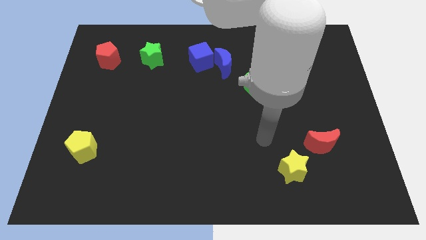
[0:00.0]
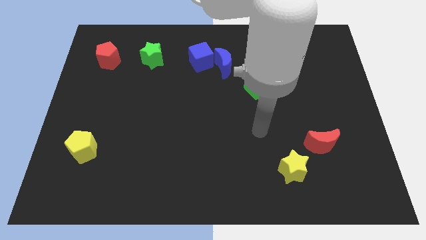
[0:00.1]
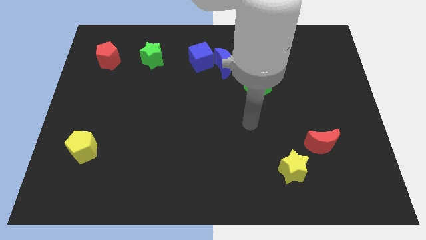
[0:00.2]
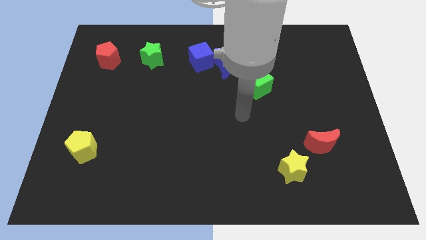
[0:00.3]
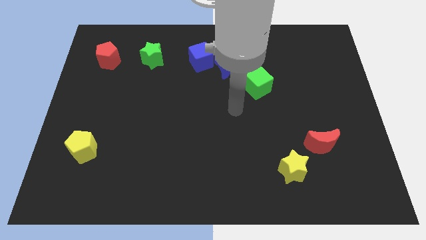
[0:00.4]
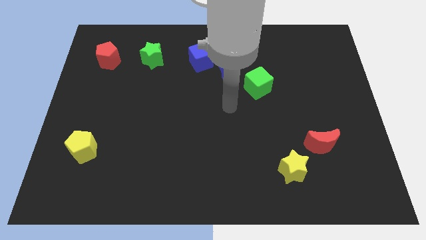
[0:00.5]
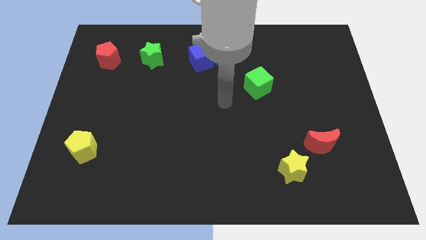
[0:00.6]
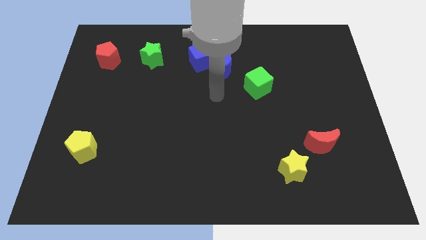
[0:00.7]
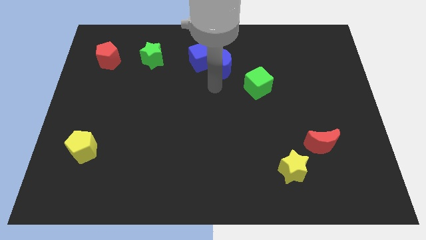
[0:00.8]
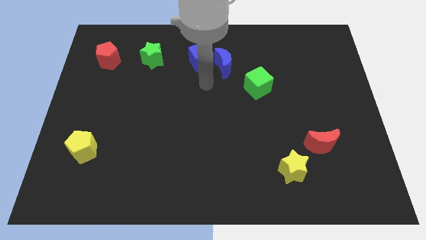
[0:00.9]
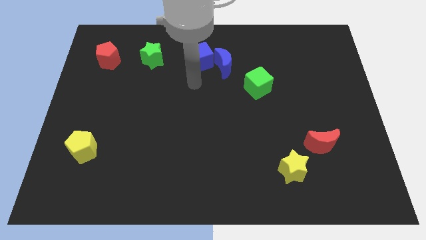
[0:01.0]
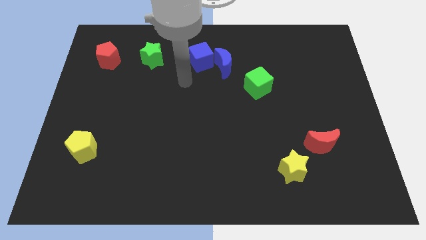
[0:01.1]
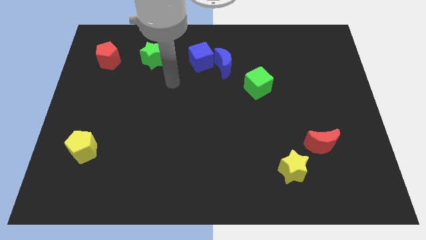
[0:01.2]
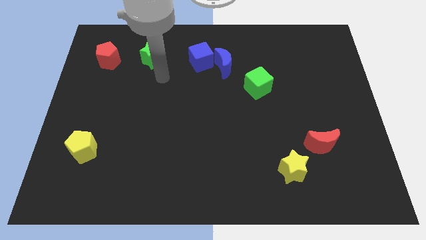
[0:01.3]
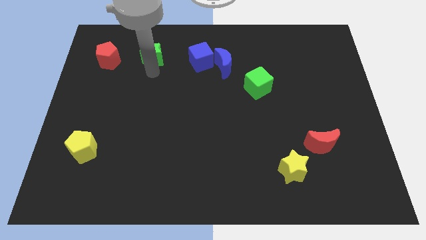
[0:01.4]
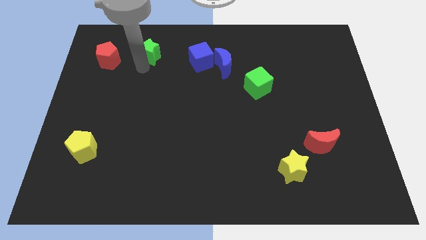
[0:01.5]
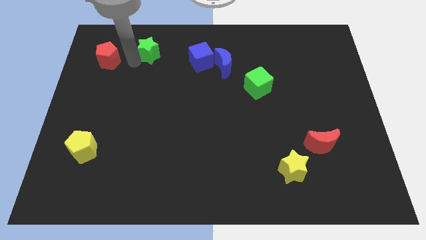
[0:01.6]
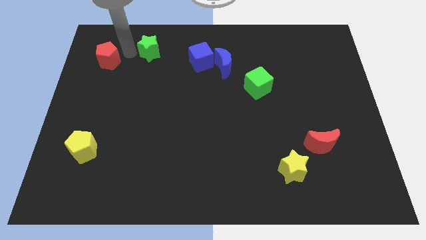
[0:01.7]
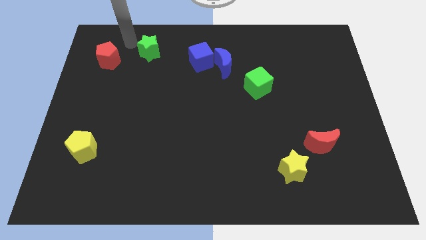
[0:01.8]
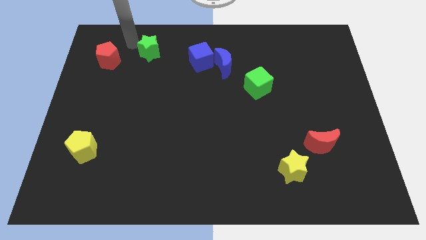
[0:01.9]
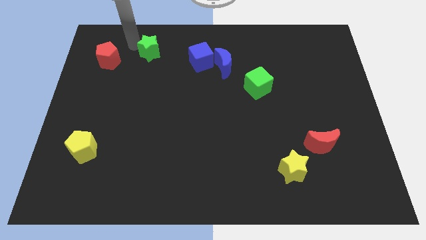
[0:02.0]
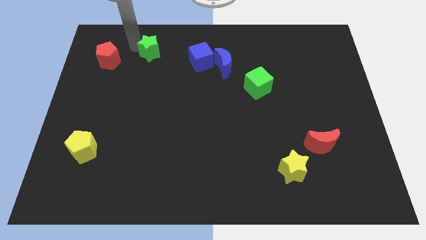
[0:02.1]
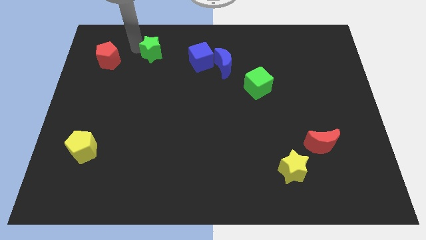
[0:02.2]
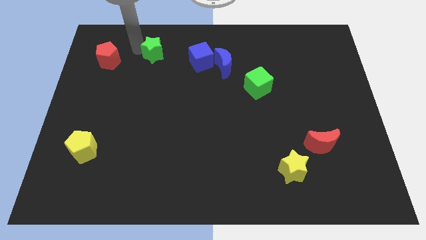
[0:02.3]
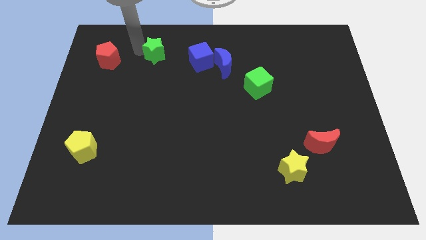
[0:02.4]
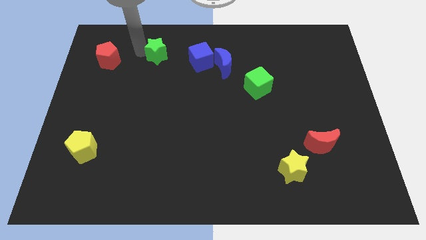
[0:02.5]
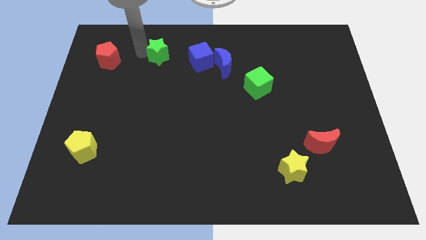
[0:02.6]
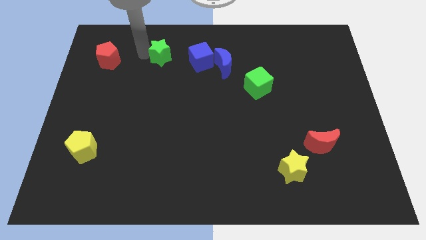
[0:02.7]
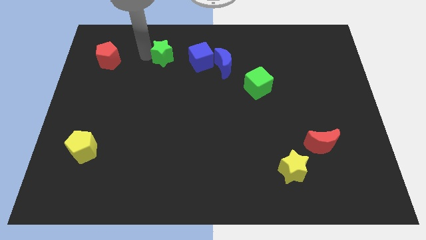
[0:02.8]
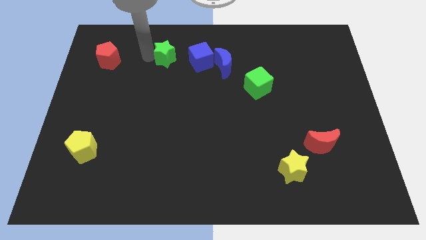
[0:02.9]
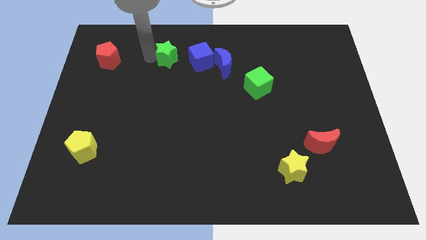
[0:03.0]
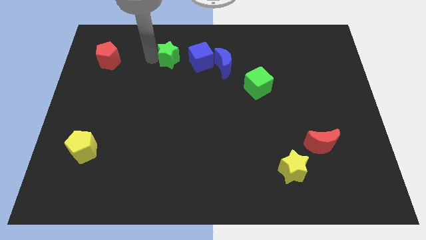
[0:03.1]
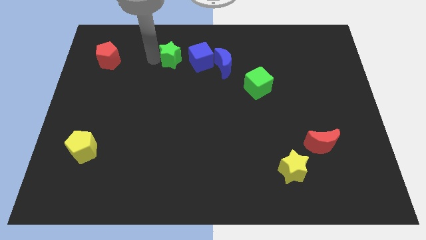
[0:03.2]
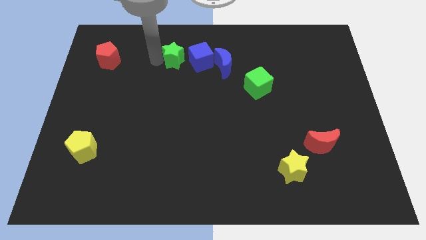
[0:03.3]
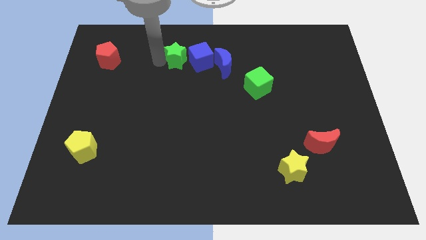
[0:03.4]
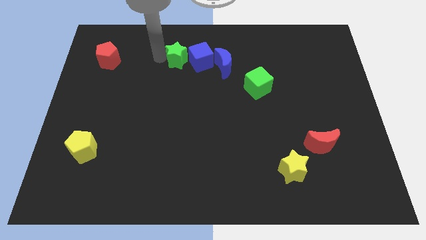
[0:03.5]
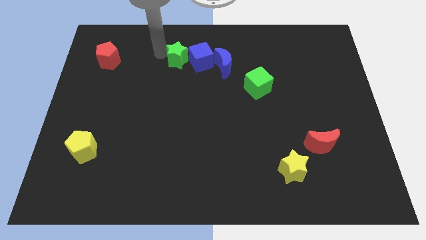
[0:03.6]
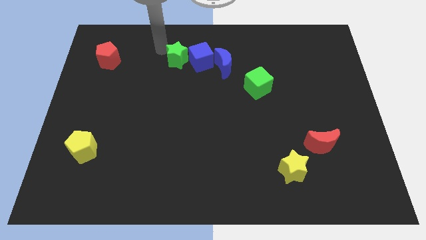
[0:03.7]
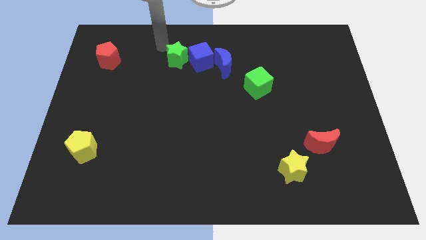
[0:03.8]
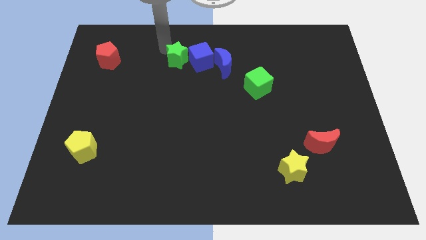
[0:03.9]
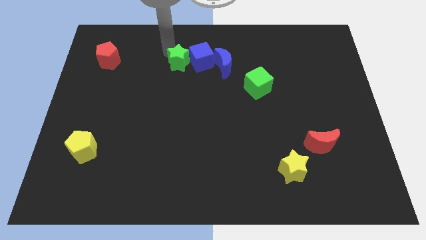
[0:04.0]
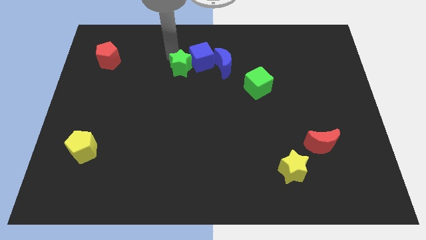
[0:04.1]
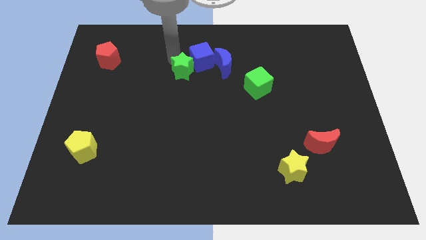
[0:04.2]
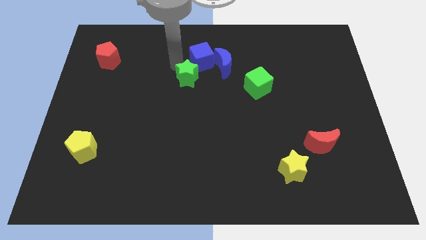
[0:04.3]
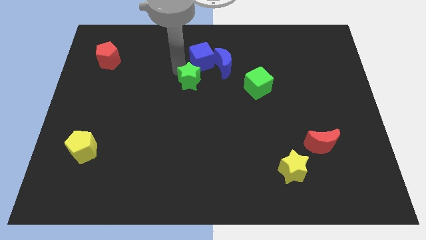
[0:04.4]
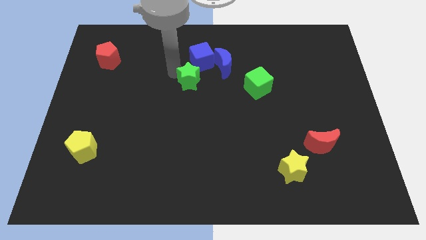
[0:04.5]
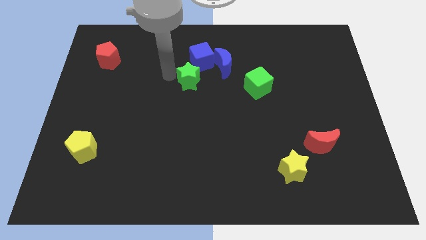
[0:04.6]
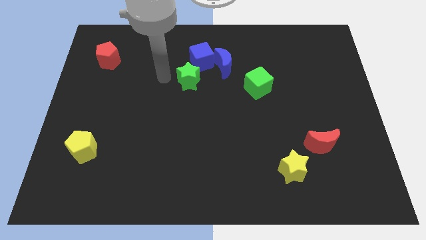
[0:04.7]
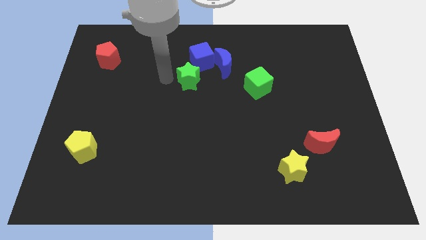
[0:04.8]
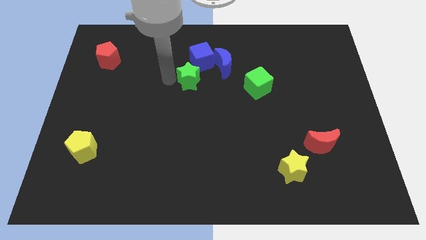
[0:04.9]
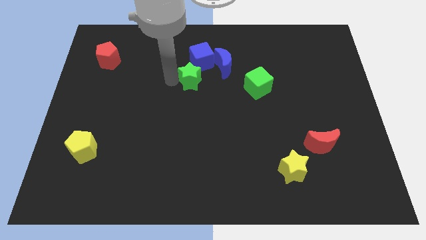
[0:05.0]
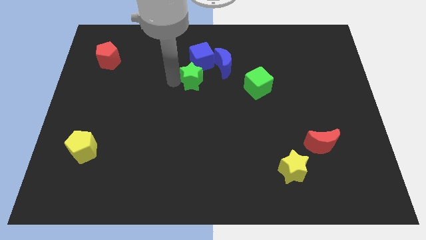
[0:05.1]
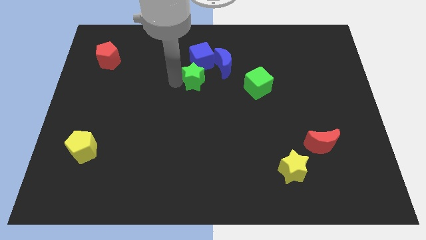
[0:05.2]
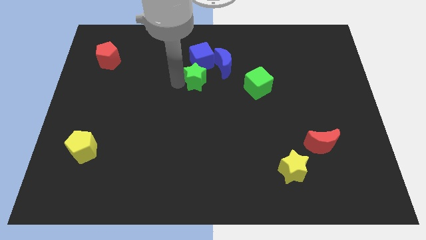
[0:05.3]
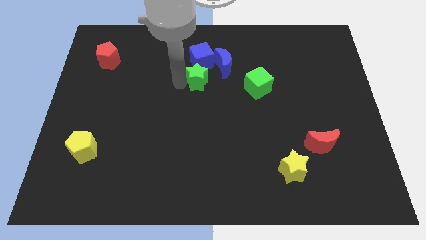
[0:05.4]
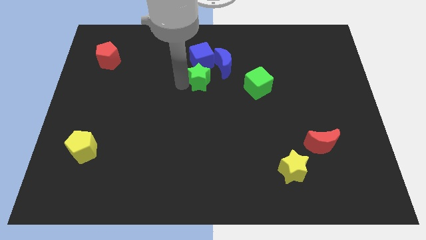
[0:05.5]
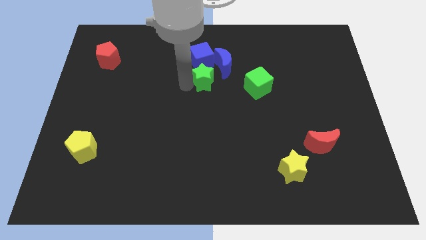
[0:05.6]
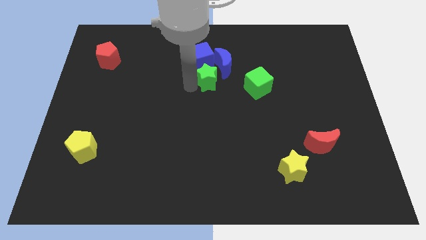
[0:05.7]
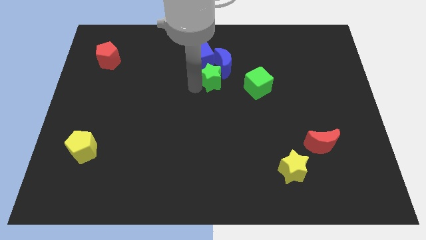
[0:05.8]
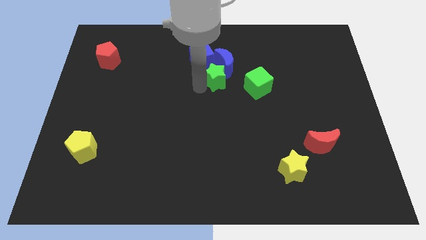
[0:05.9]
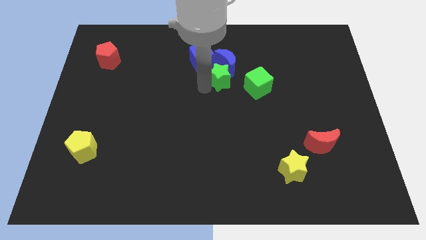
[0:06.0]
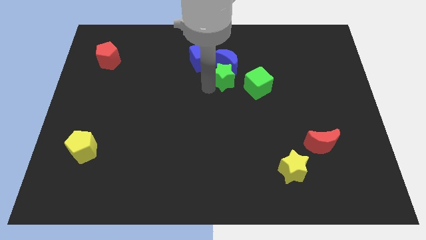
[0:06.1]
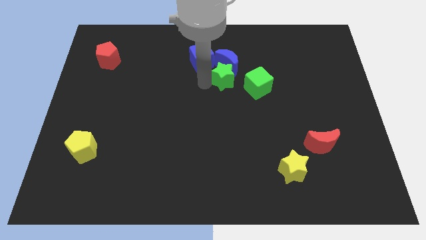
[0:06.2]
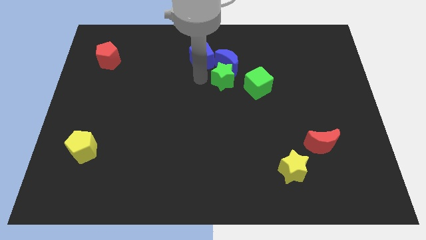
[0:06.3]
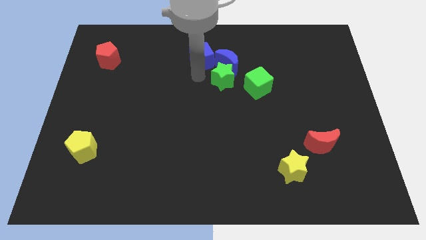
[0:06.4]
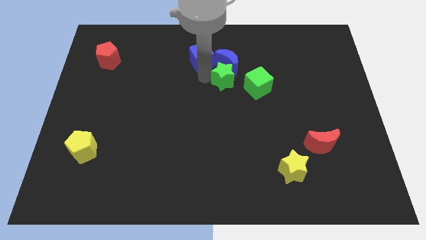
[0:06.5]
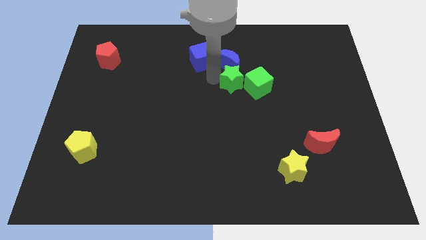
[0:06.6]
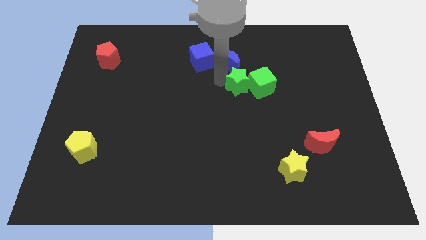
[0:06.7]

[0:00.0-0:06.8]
put the green star to the green cube
